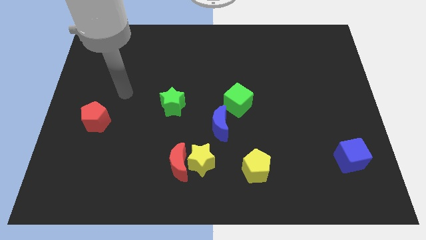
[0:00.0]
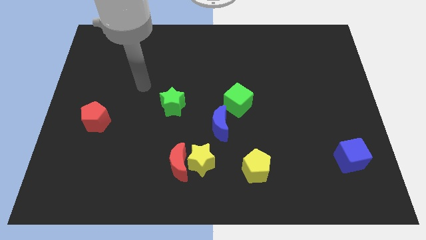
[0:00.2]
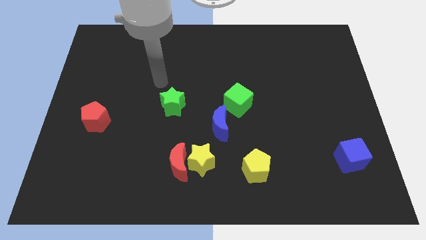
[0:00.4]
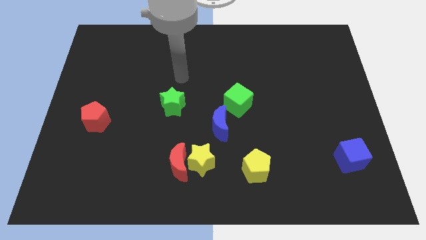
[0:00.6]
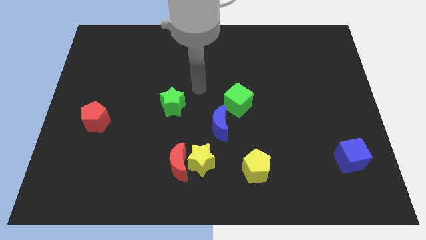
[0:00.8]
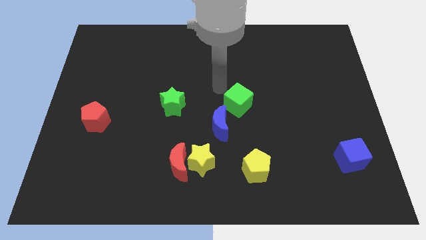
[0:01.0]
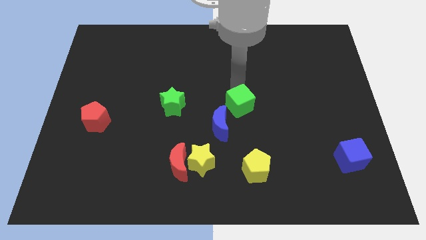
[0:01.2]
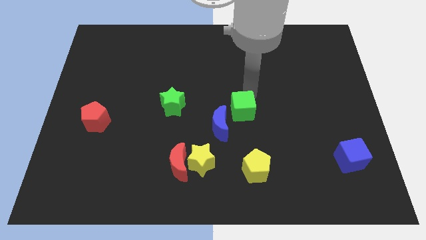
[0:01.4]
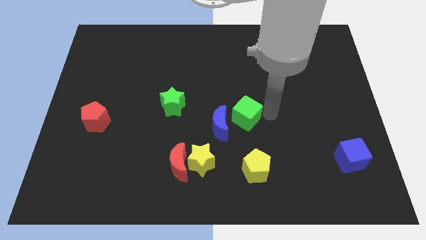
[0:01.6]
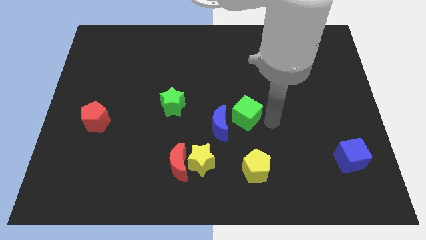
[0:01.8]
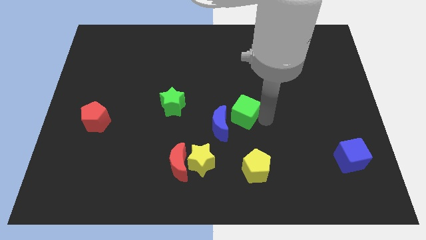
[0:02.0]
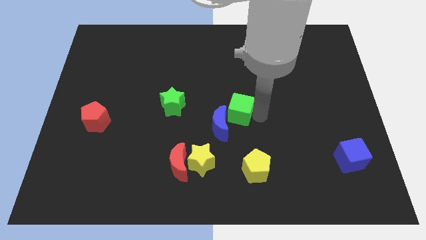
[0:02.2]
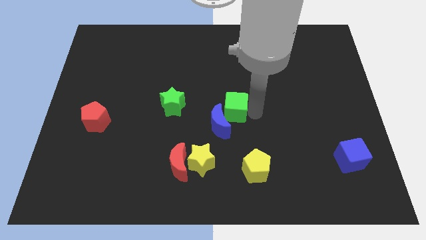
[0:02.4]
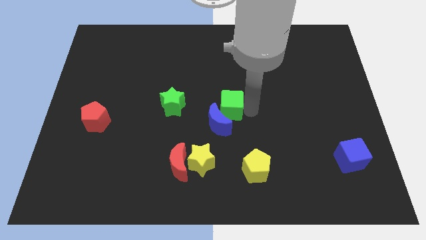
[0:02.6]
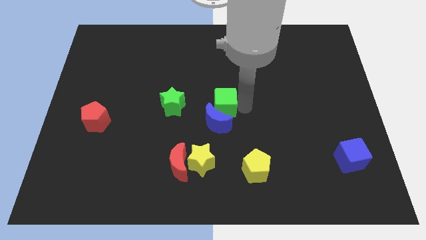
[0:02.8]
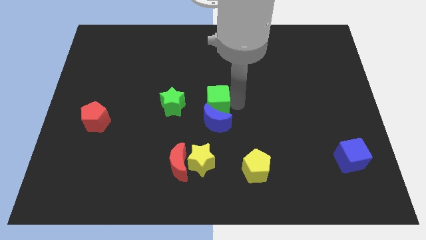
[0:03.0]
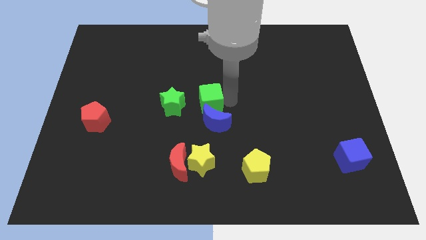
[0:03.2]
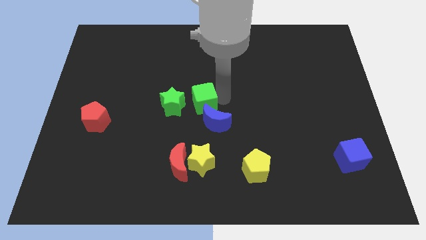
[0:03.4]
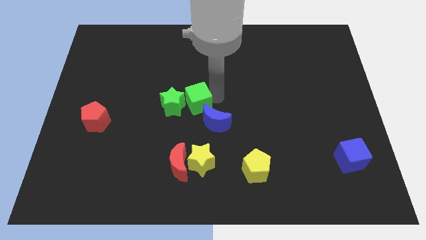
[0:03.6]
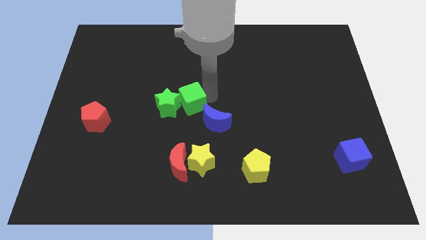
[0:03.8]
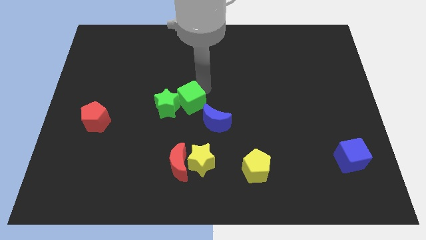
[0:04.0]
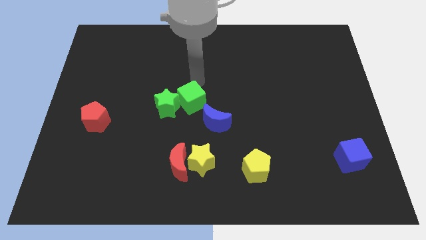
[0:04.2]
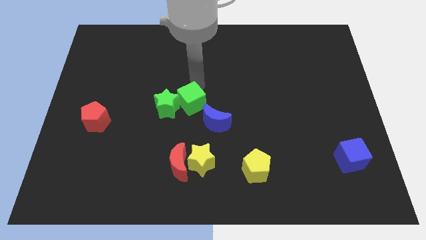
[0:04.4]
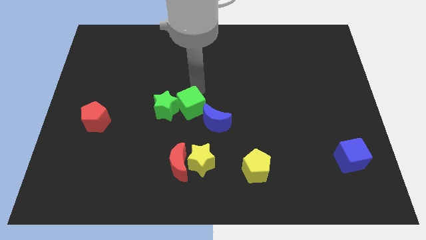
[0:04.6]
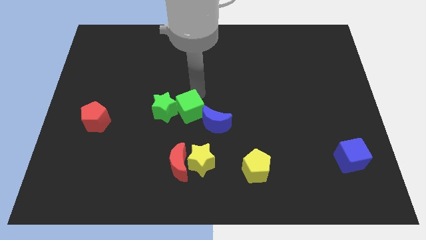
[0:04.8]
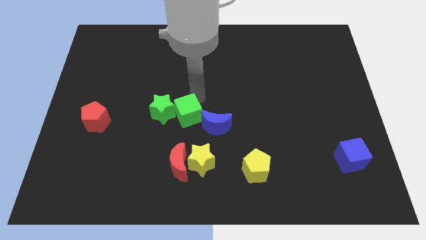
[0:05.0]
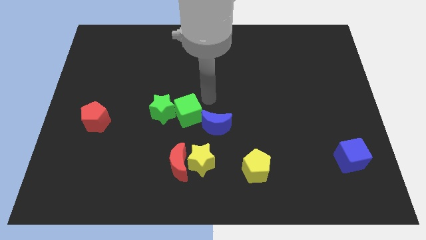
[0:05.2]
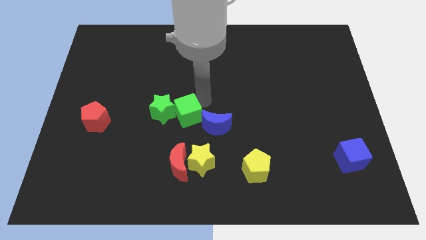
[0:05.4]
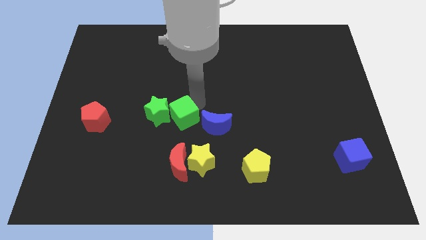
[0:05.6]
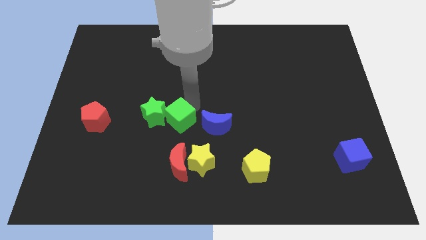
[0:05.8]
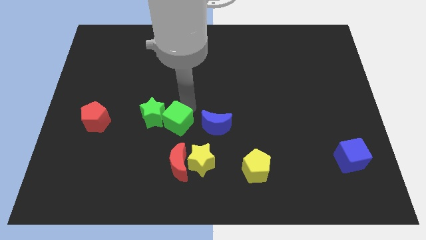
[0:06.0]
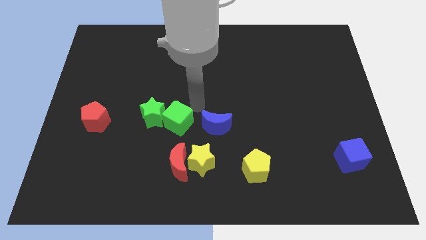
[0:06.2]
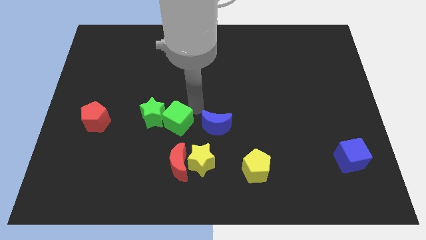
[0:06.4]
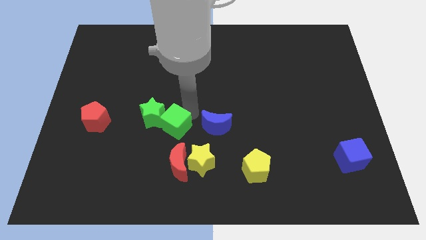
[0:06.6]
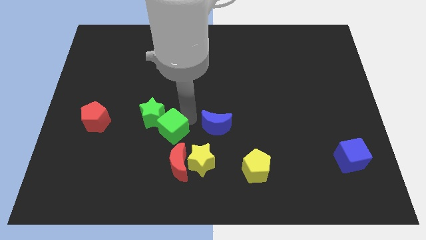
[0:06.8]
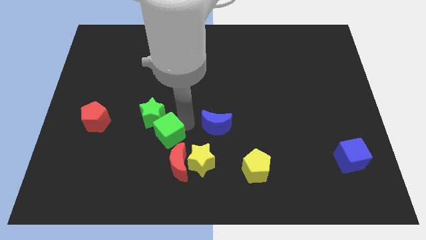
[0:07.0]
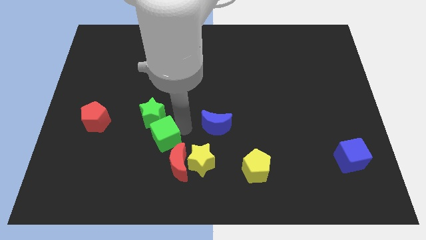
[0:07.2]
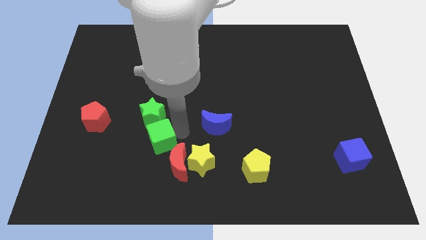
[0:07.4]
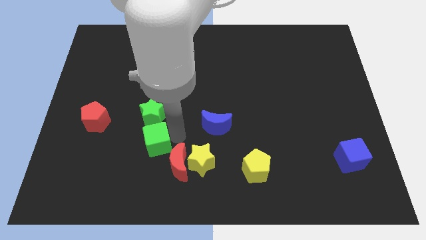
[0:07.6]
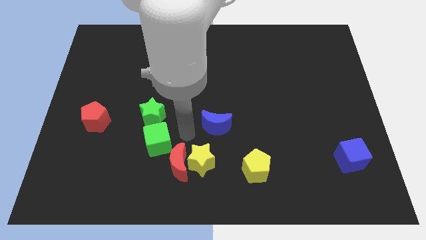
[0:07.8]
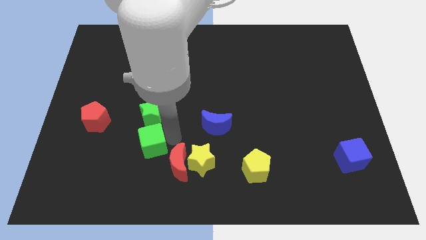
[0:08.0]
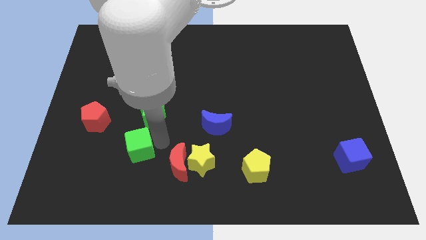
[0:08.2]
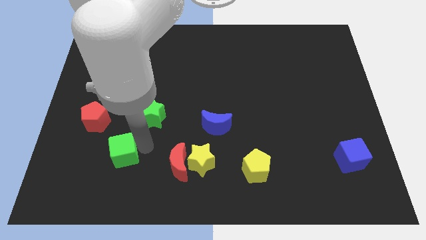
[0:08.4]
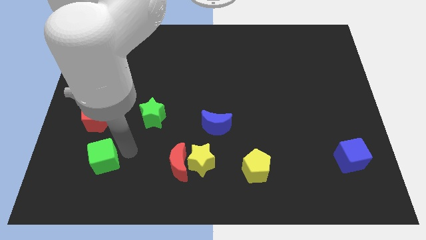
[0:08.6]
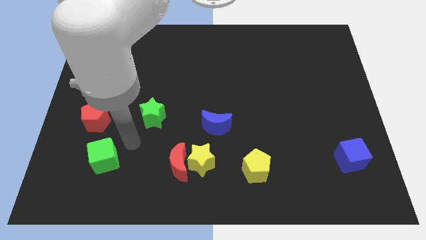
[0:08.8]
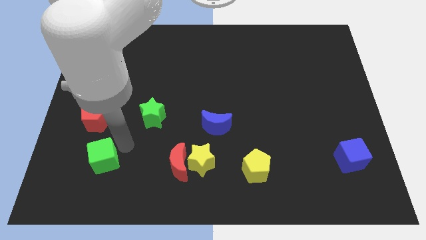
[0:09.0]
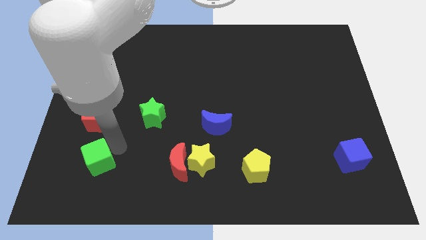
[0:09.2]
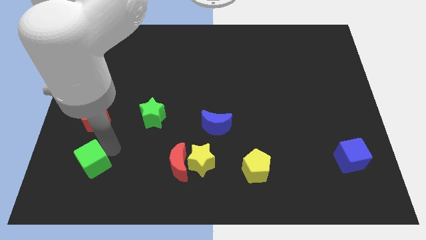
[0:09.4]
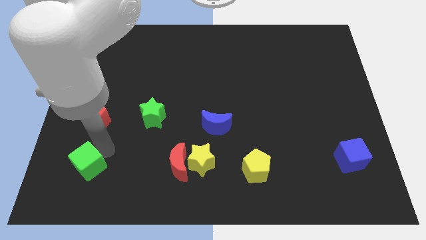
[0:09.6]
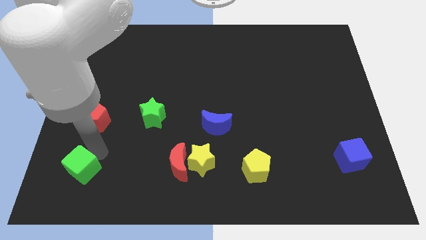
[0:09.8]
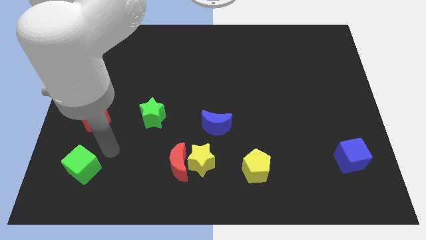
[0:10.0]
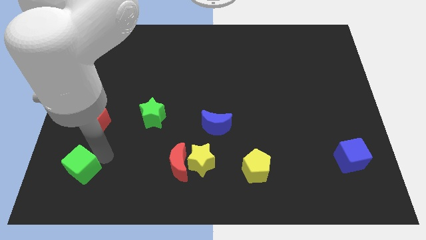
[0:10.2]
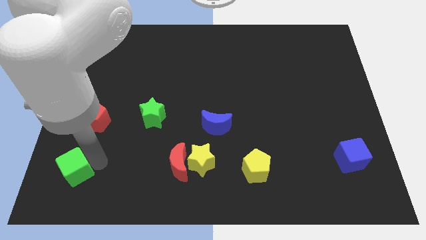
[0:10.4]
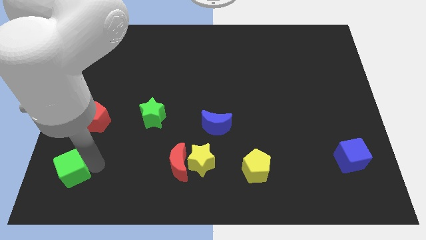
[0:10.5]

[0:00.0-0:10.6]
push the green cube to the bottom left of the board

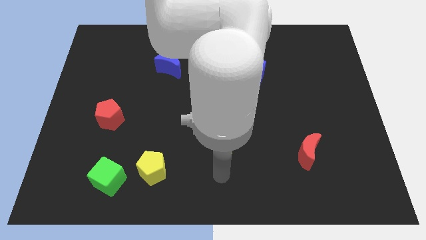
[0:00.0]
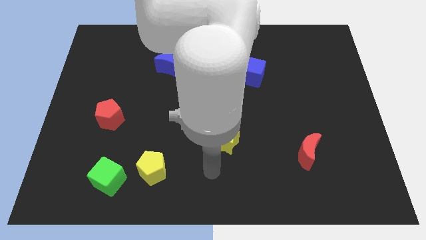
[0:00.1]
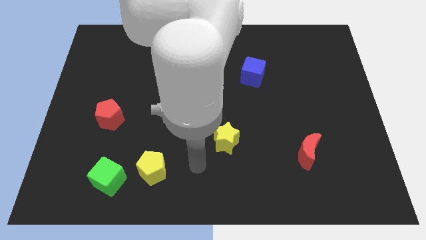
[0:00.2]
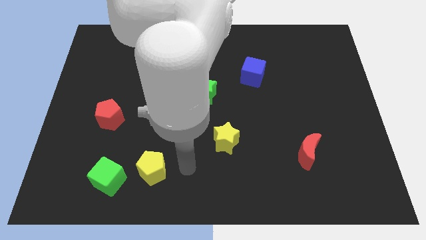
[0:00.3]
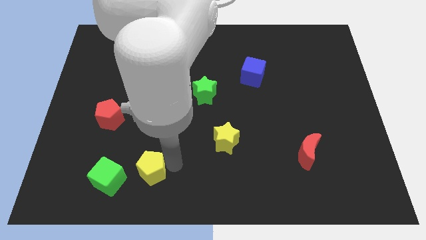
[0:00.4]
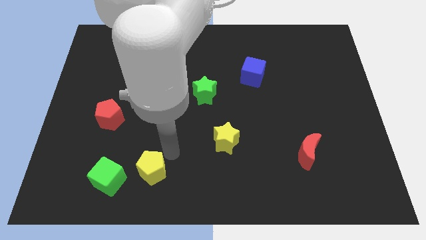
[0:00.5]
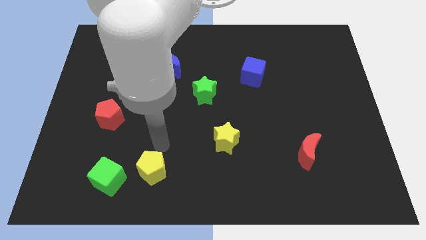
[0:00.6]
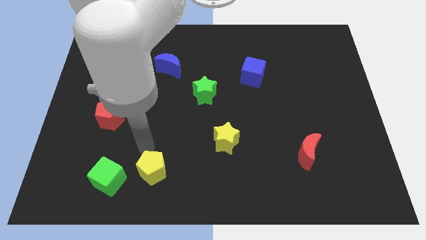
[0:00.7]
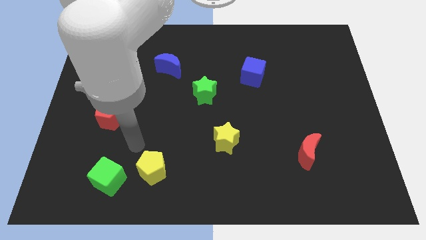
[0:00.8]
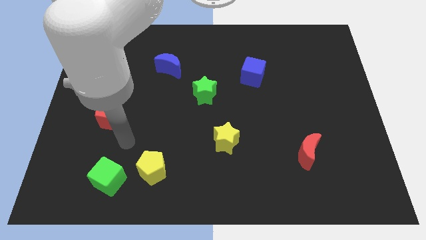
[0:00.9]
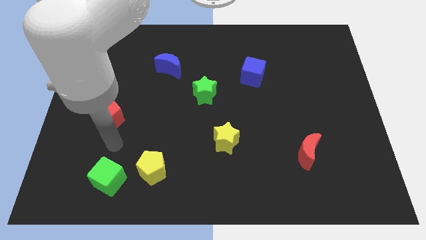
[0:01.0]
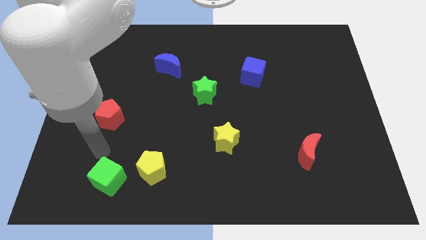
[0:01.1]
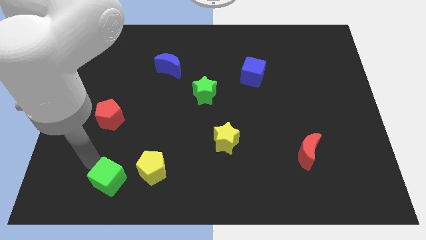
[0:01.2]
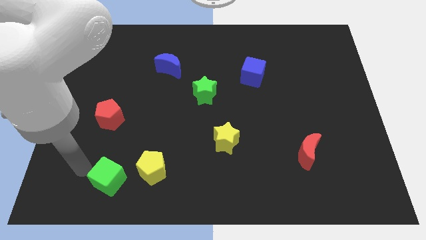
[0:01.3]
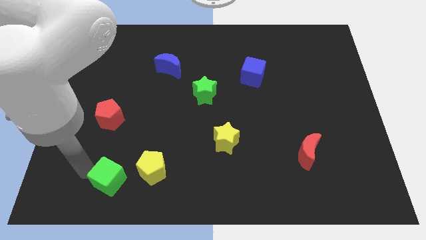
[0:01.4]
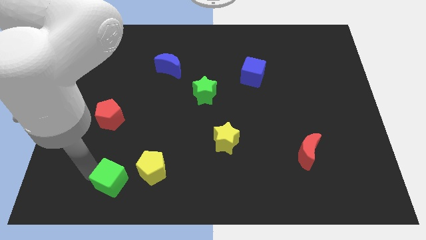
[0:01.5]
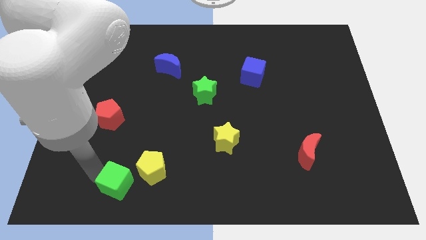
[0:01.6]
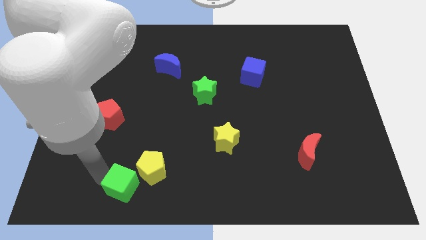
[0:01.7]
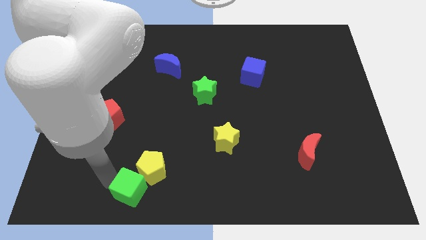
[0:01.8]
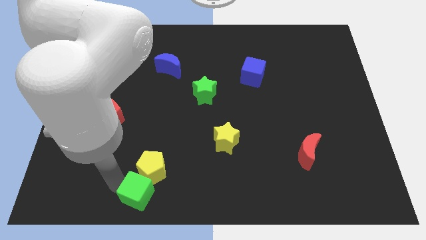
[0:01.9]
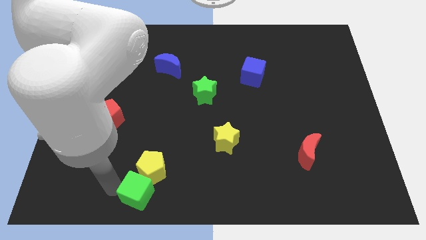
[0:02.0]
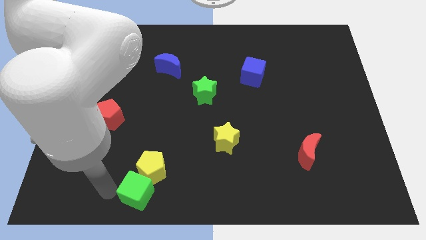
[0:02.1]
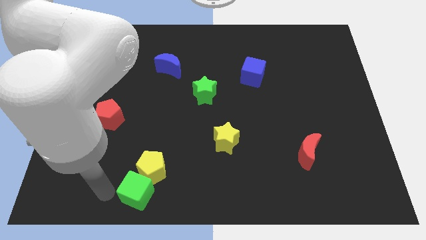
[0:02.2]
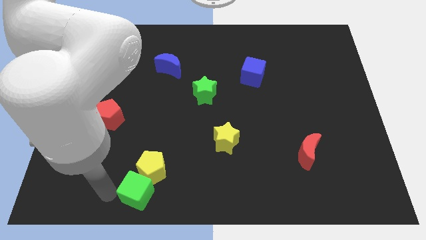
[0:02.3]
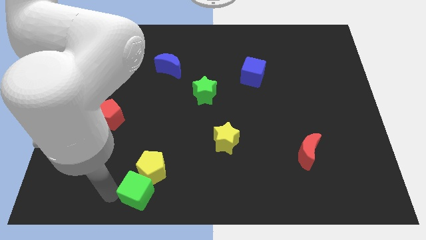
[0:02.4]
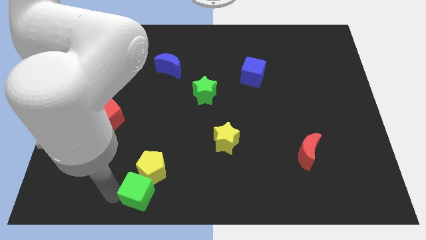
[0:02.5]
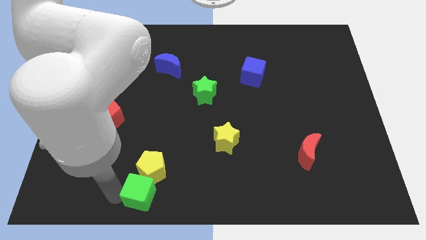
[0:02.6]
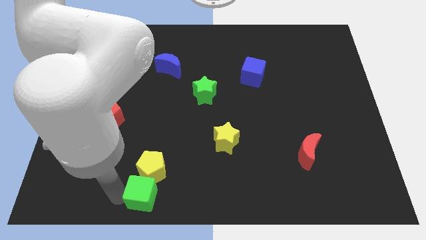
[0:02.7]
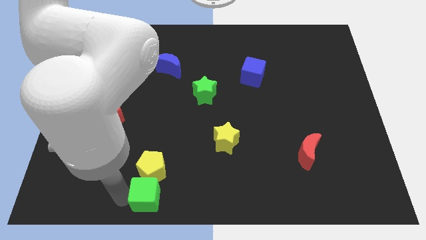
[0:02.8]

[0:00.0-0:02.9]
move the green cube to the bottom
